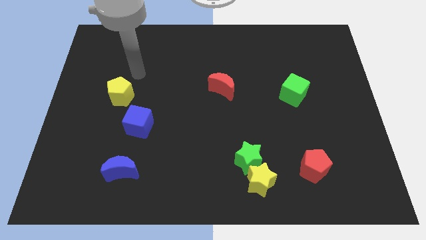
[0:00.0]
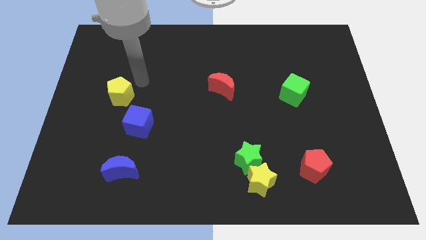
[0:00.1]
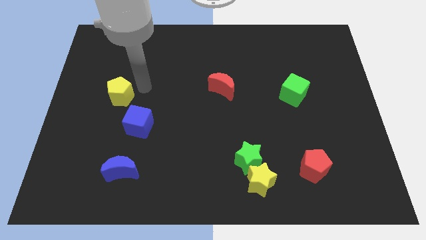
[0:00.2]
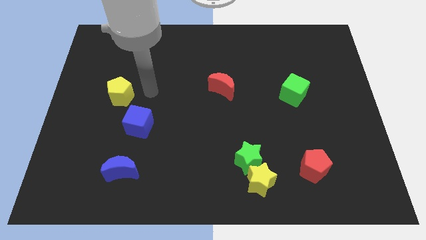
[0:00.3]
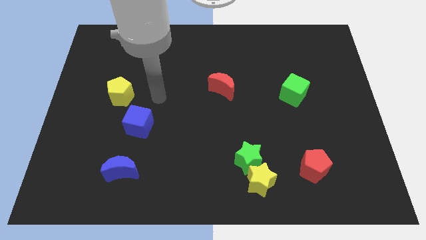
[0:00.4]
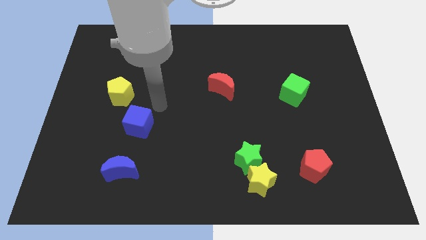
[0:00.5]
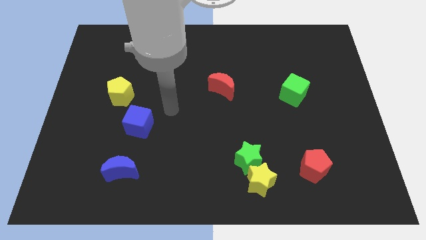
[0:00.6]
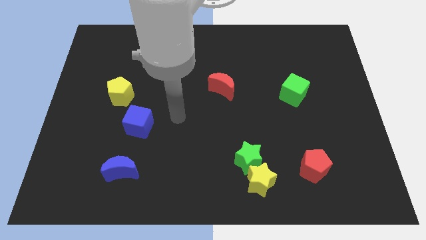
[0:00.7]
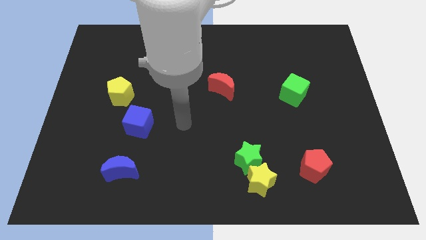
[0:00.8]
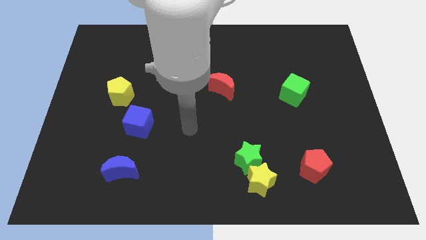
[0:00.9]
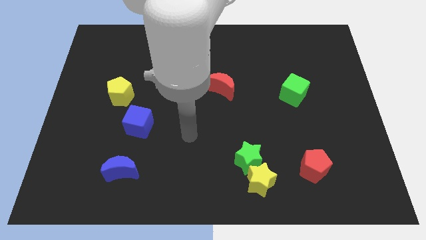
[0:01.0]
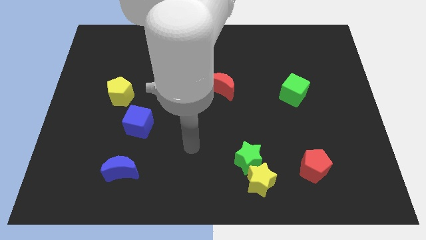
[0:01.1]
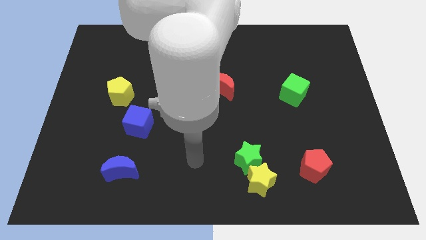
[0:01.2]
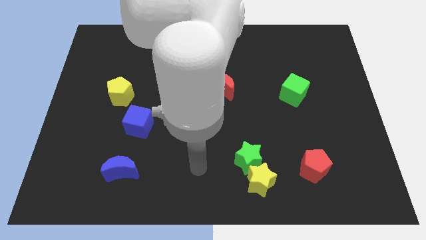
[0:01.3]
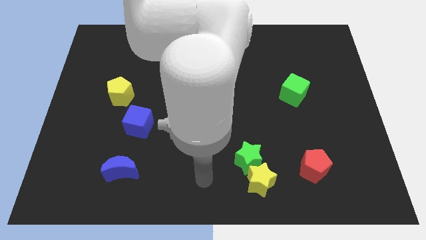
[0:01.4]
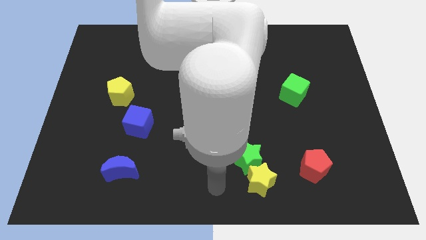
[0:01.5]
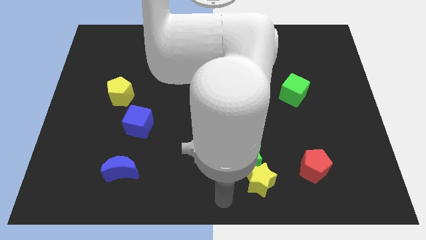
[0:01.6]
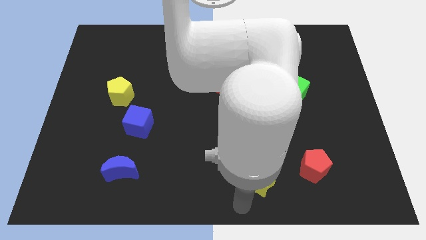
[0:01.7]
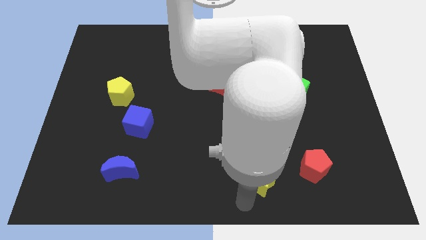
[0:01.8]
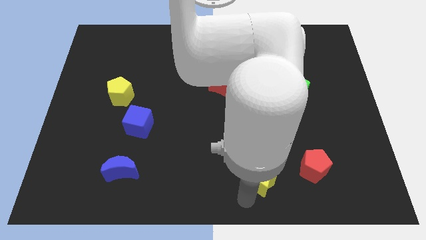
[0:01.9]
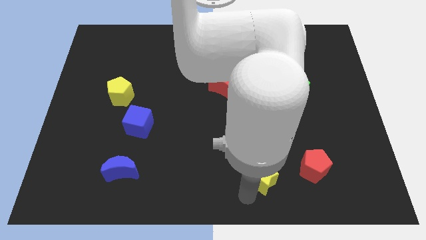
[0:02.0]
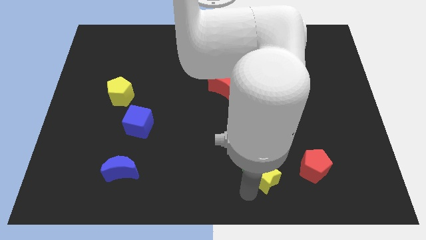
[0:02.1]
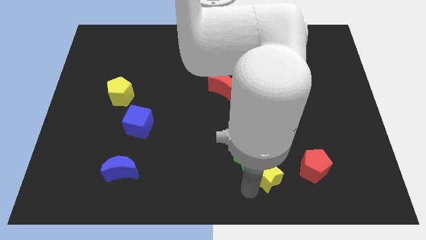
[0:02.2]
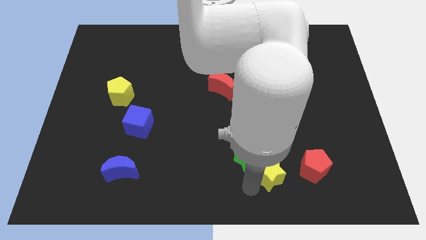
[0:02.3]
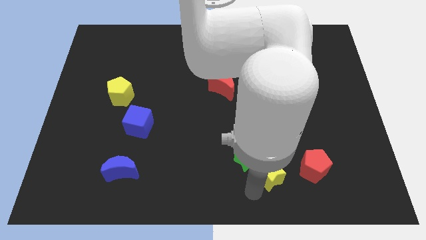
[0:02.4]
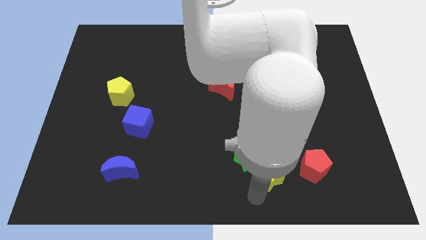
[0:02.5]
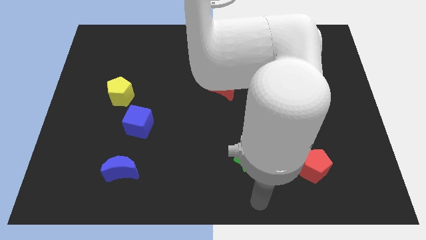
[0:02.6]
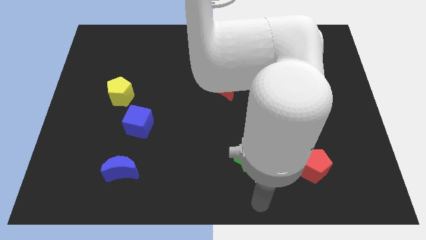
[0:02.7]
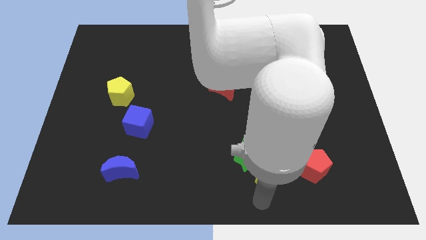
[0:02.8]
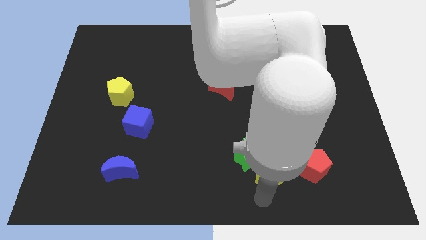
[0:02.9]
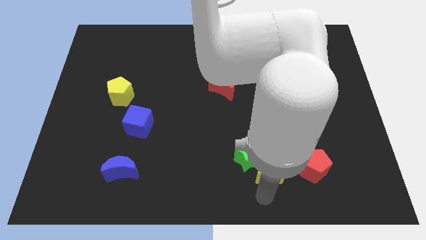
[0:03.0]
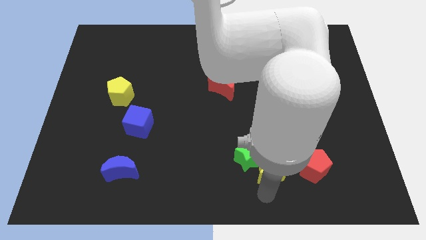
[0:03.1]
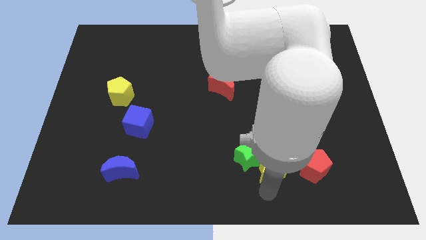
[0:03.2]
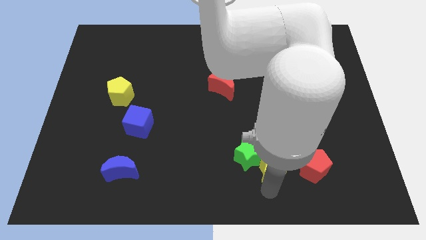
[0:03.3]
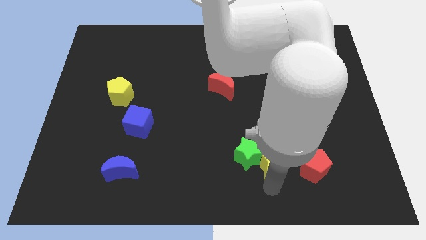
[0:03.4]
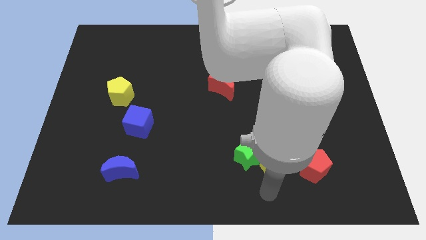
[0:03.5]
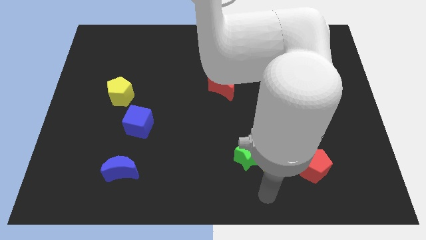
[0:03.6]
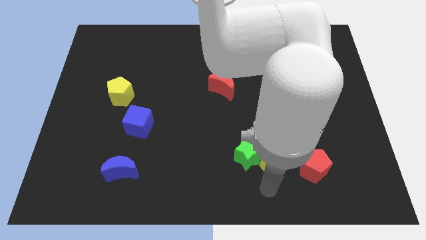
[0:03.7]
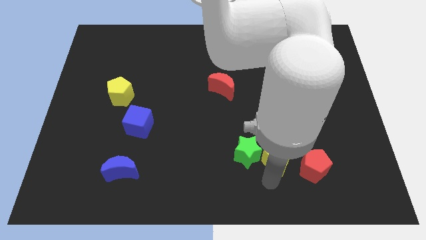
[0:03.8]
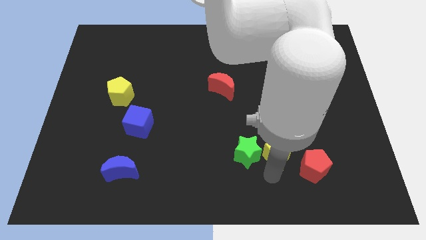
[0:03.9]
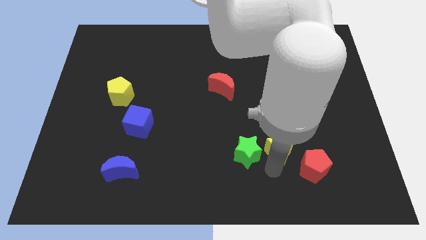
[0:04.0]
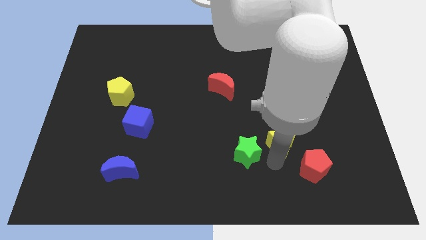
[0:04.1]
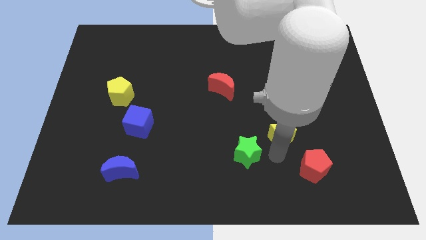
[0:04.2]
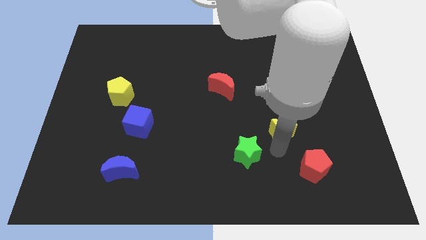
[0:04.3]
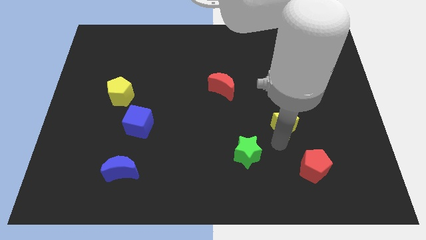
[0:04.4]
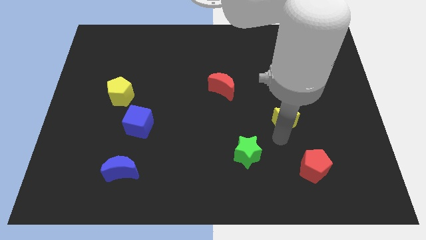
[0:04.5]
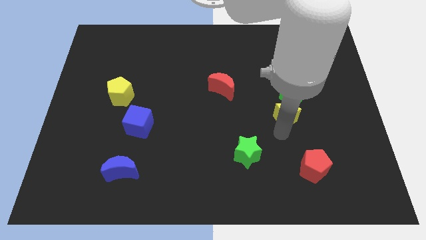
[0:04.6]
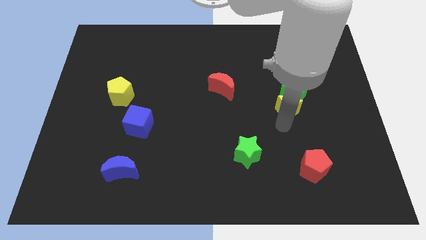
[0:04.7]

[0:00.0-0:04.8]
put the yellow star towards the green cube

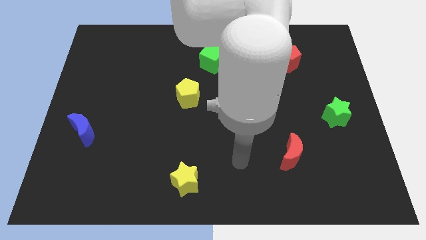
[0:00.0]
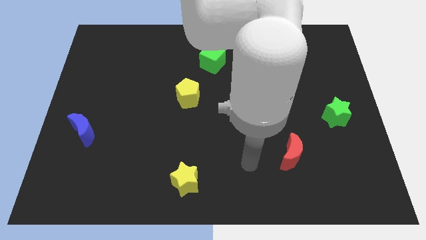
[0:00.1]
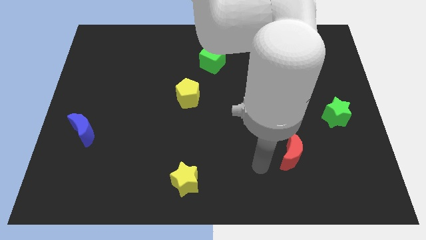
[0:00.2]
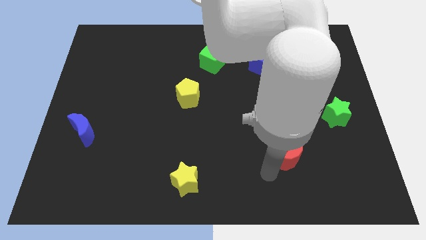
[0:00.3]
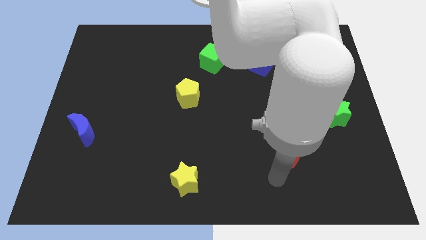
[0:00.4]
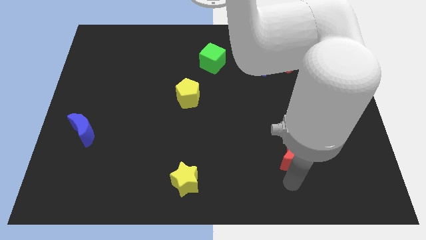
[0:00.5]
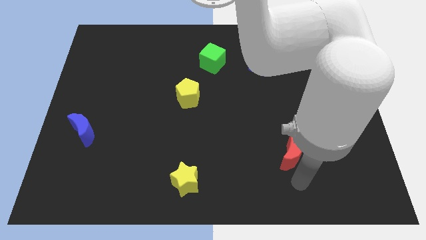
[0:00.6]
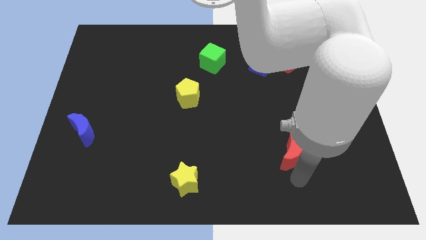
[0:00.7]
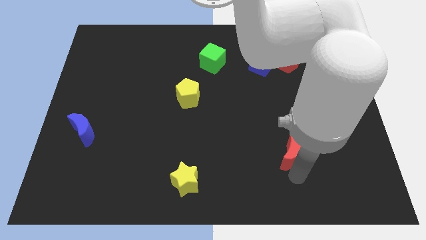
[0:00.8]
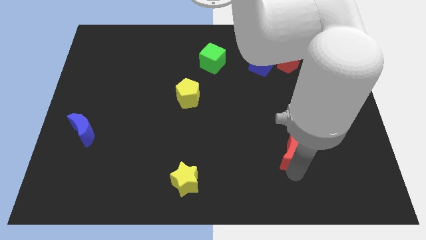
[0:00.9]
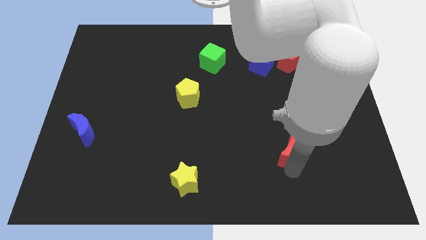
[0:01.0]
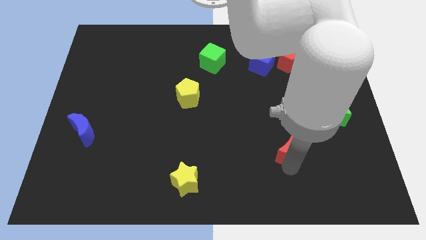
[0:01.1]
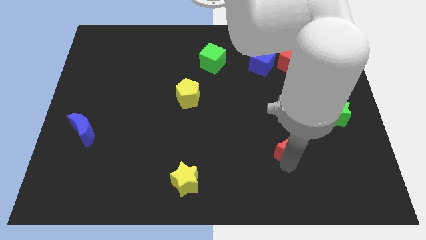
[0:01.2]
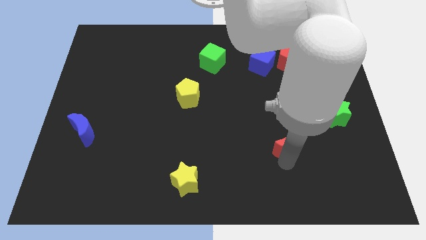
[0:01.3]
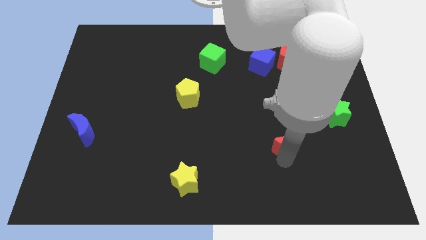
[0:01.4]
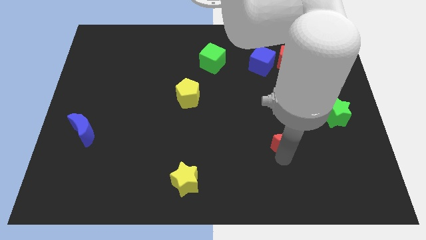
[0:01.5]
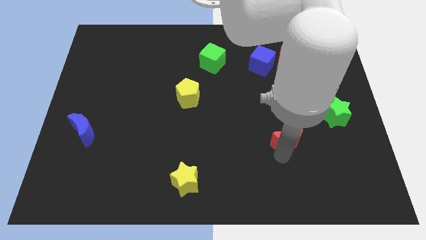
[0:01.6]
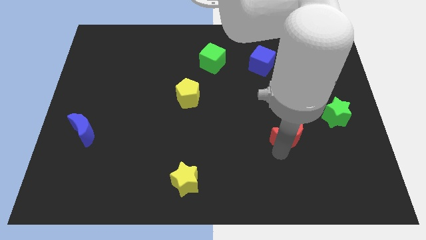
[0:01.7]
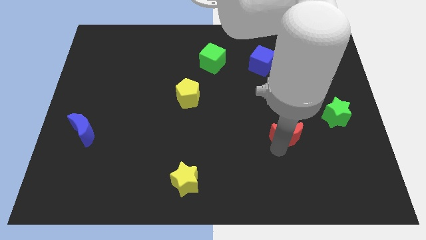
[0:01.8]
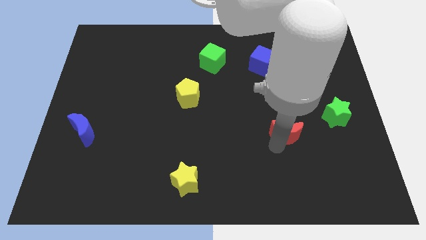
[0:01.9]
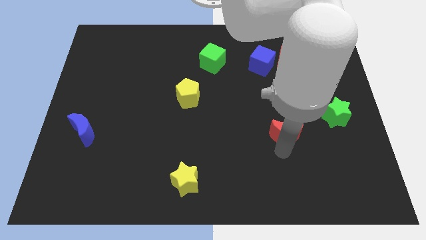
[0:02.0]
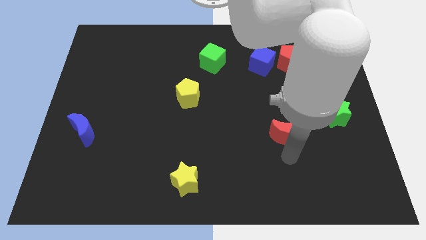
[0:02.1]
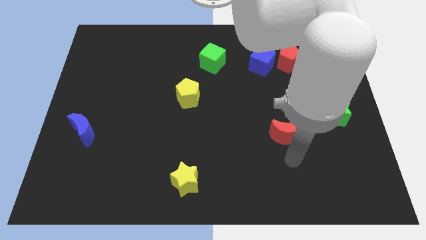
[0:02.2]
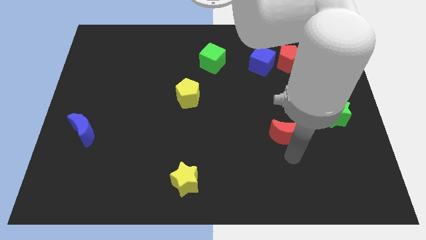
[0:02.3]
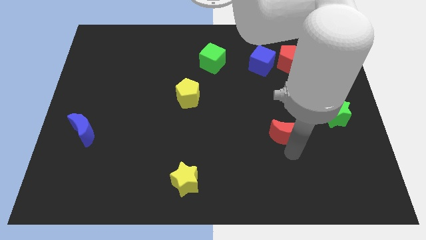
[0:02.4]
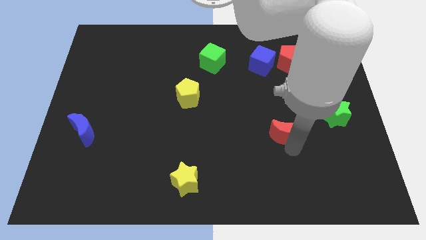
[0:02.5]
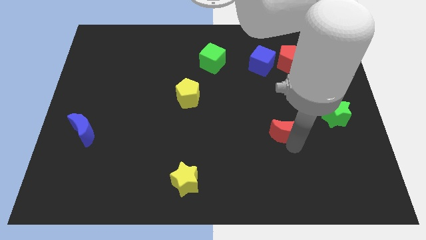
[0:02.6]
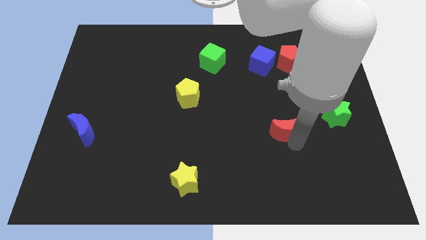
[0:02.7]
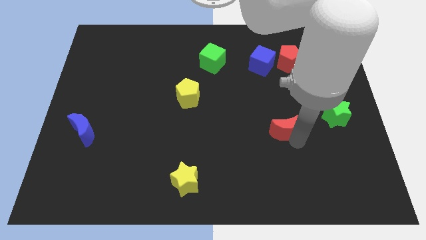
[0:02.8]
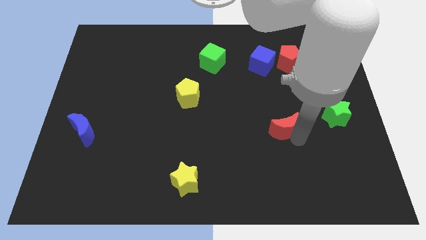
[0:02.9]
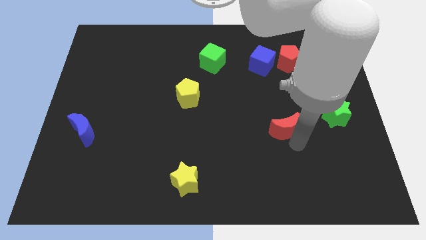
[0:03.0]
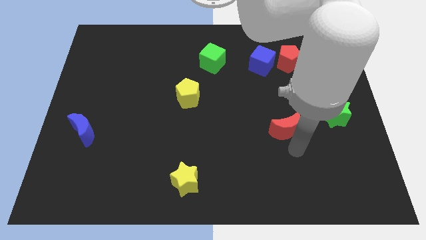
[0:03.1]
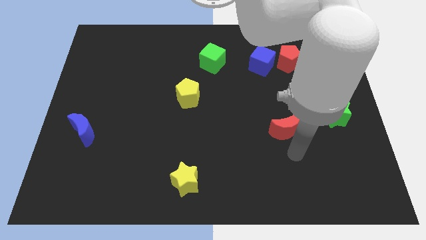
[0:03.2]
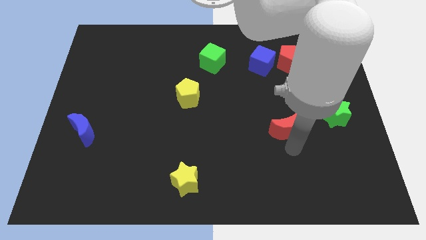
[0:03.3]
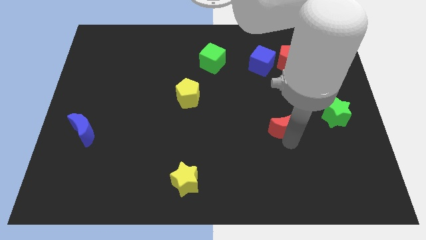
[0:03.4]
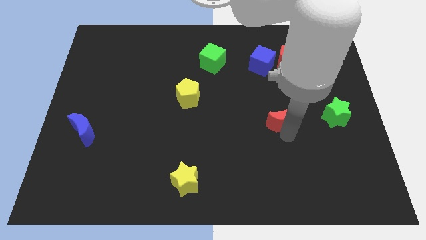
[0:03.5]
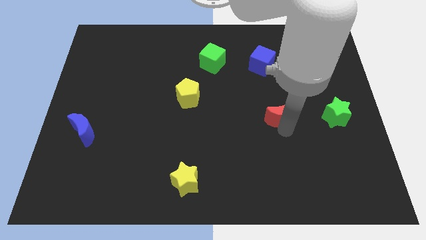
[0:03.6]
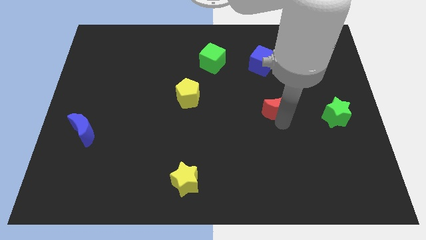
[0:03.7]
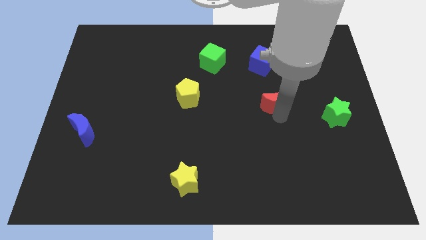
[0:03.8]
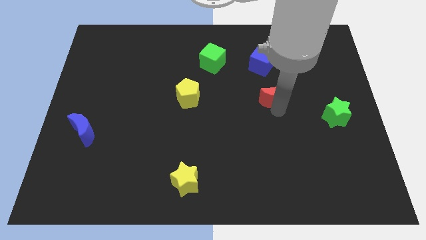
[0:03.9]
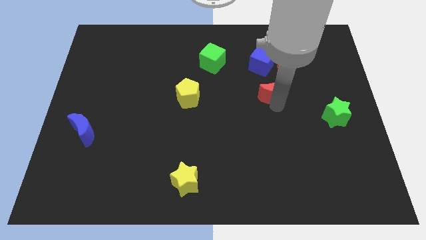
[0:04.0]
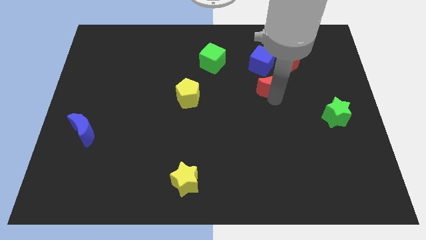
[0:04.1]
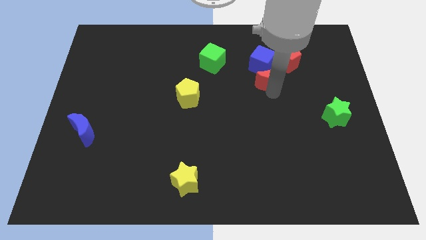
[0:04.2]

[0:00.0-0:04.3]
move the red moon close to the blue cube
